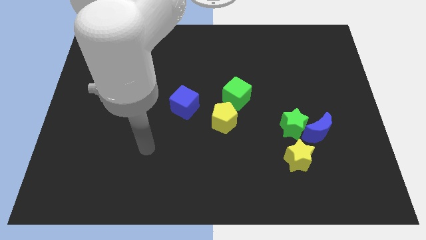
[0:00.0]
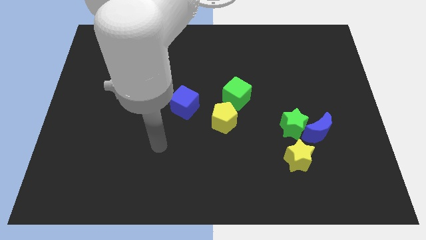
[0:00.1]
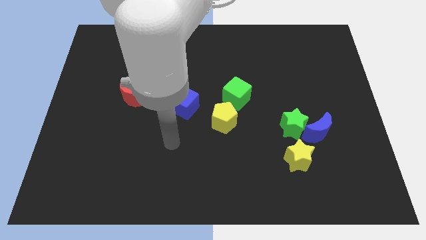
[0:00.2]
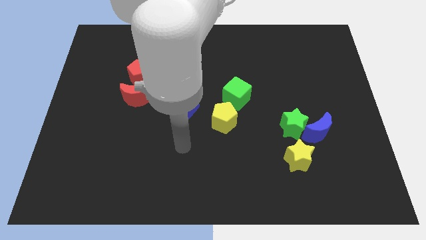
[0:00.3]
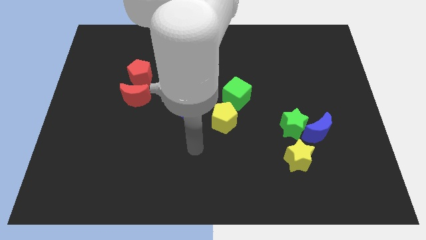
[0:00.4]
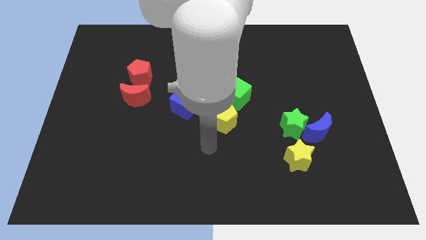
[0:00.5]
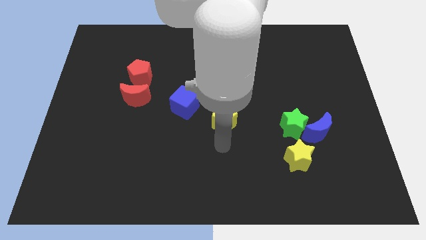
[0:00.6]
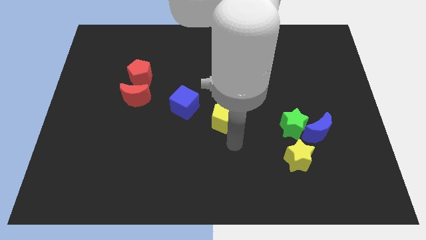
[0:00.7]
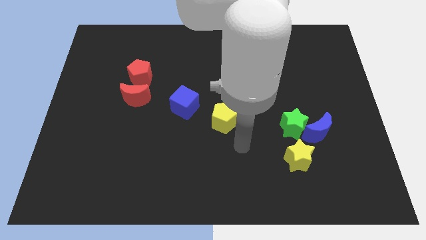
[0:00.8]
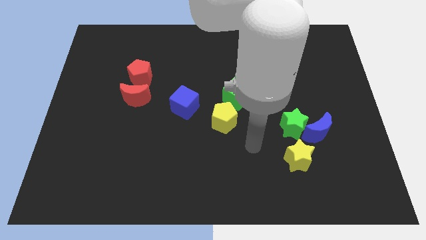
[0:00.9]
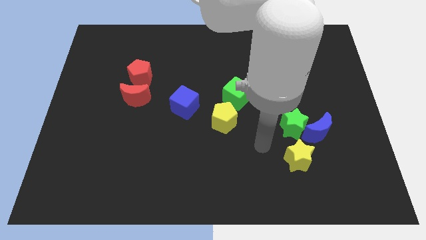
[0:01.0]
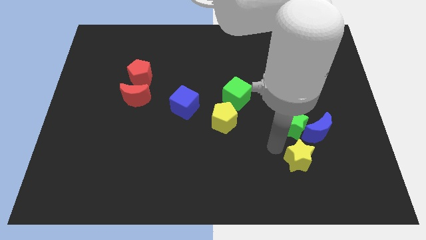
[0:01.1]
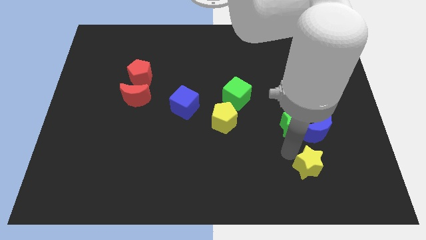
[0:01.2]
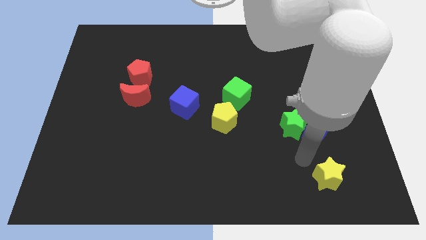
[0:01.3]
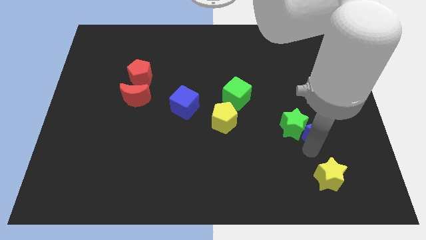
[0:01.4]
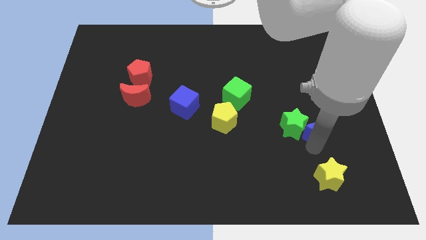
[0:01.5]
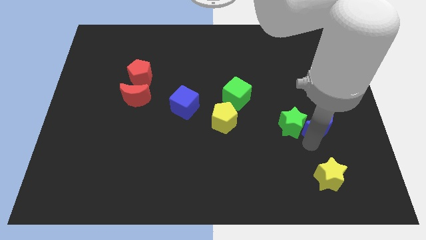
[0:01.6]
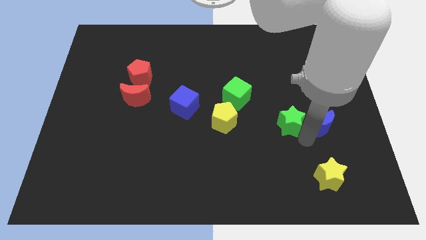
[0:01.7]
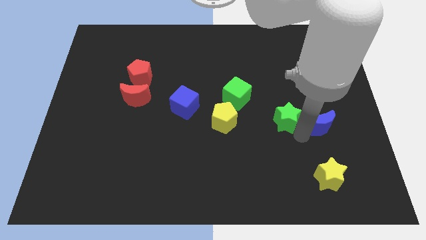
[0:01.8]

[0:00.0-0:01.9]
move the green star away from the blue moon and yellow star

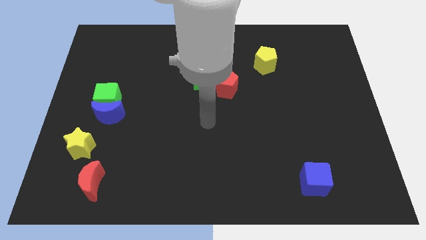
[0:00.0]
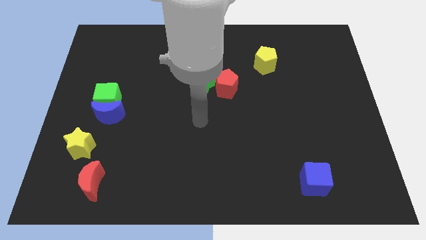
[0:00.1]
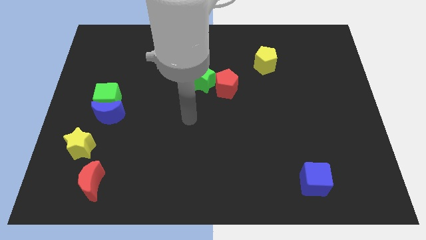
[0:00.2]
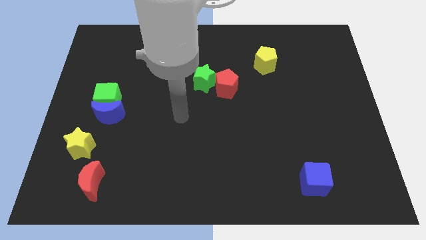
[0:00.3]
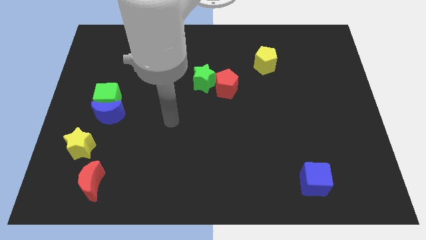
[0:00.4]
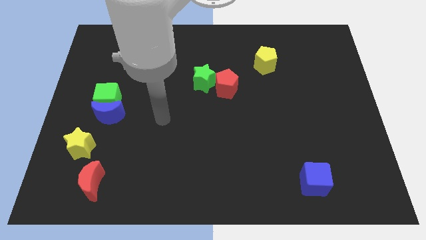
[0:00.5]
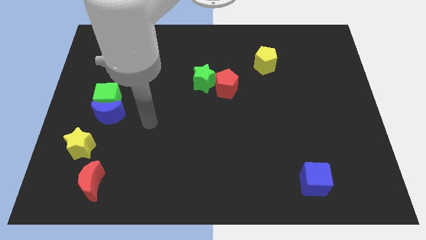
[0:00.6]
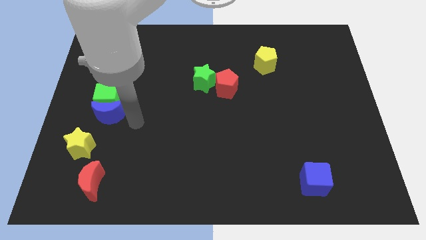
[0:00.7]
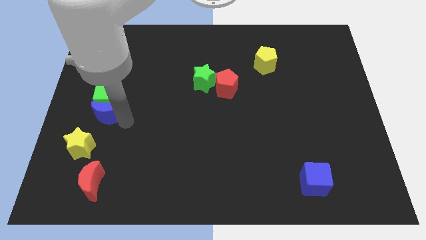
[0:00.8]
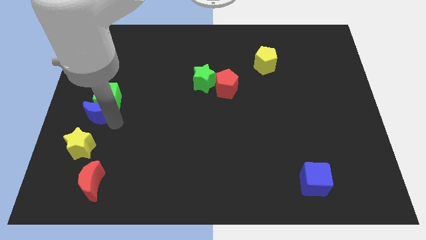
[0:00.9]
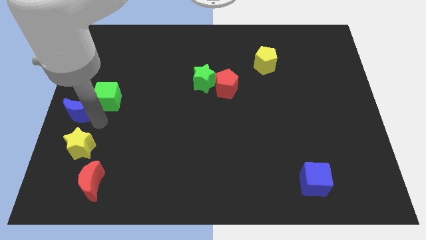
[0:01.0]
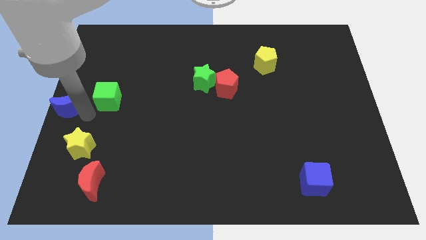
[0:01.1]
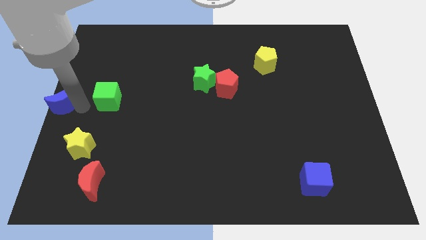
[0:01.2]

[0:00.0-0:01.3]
move the green cube away from the blue moon

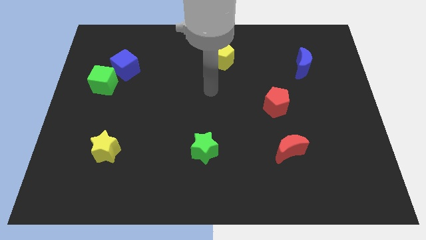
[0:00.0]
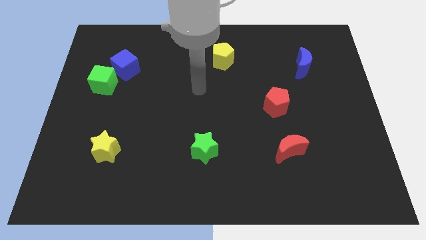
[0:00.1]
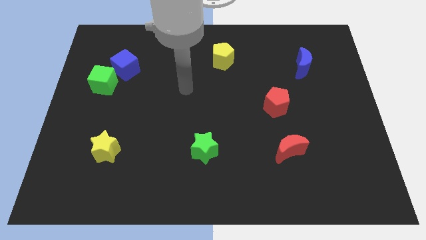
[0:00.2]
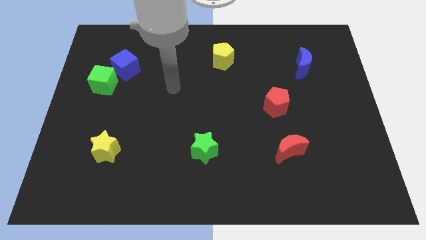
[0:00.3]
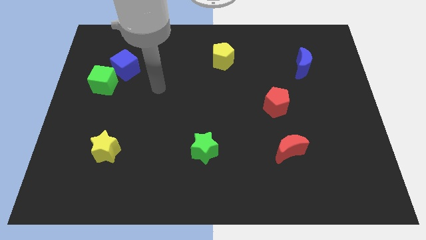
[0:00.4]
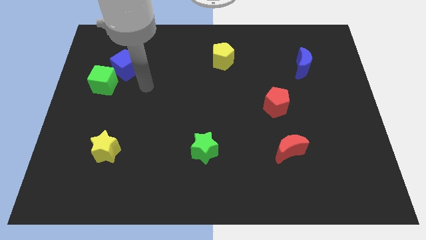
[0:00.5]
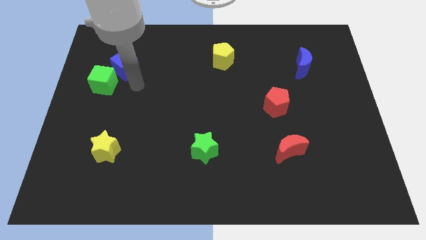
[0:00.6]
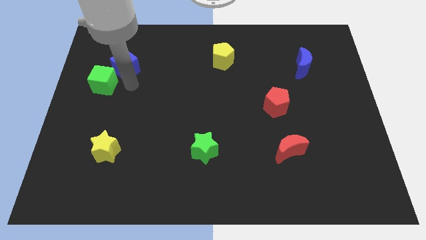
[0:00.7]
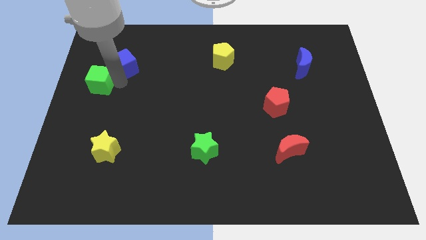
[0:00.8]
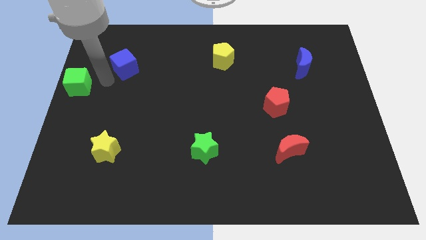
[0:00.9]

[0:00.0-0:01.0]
pull the blue cube apart from the green cube

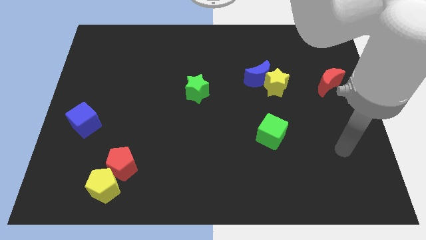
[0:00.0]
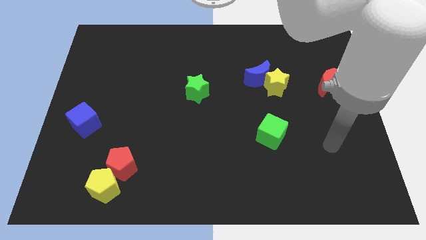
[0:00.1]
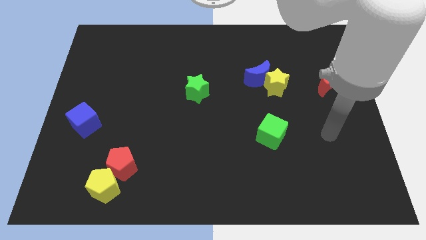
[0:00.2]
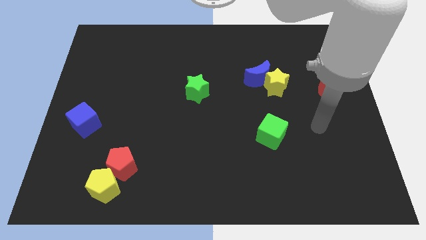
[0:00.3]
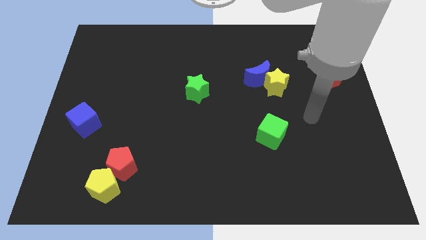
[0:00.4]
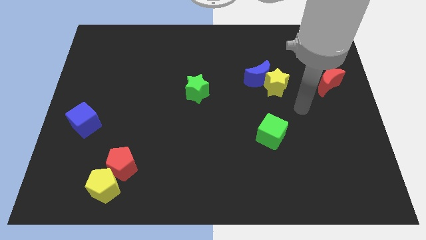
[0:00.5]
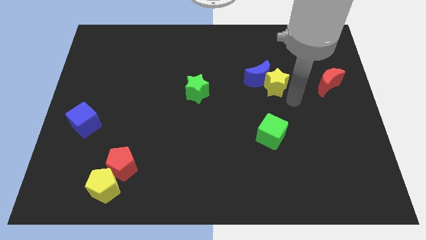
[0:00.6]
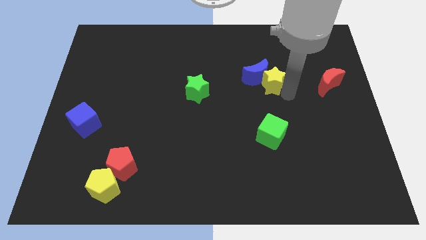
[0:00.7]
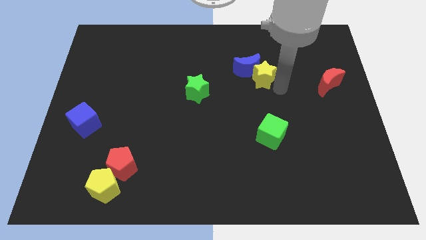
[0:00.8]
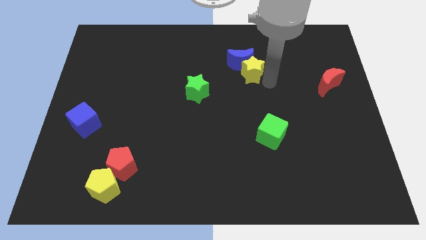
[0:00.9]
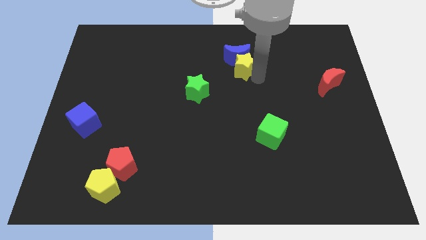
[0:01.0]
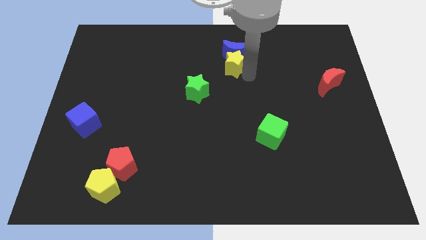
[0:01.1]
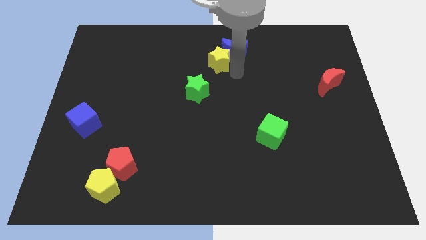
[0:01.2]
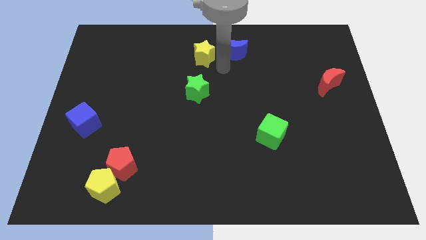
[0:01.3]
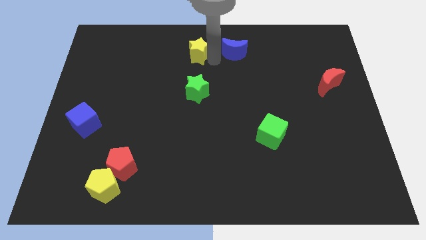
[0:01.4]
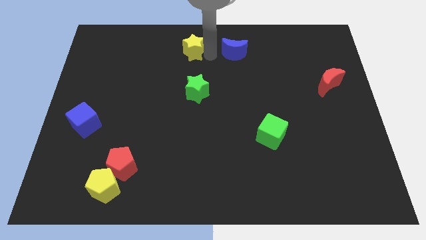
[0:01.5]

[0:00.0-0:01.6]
move the blue moon away from the yellow star

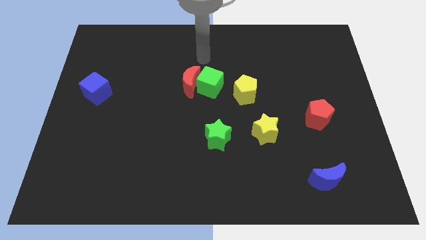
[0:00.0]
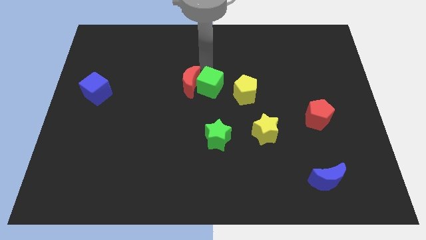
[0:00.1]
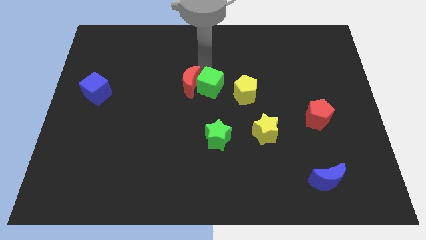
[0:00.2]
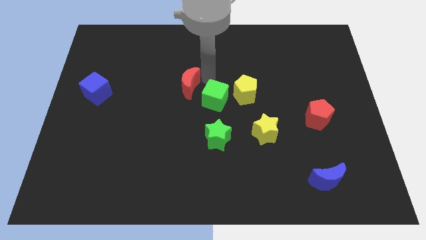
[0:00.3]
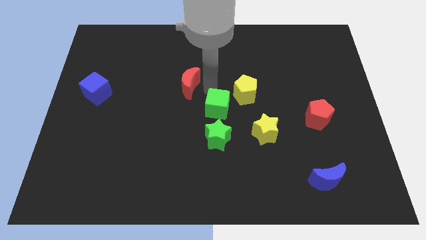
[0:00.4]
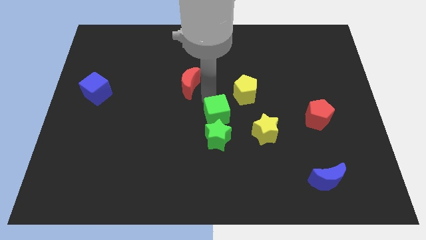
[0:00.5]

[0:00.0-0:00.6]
pull the red moon apart from the green cube

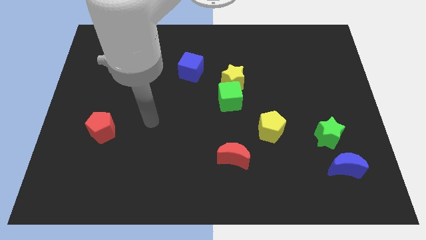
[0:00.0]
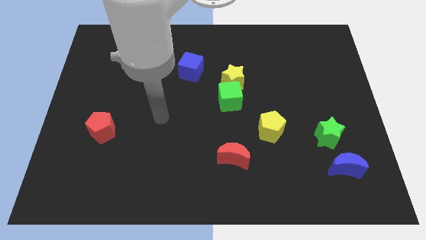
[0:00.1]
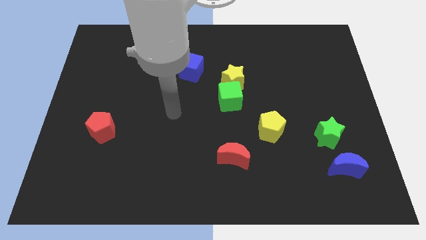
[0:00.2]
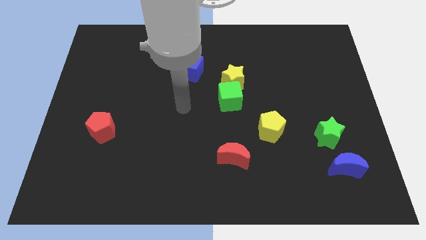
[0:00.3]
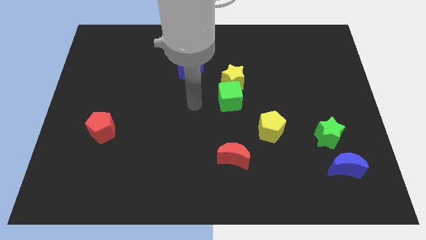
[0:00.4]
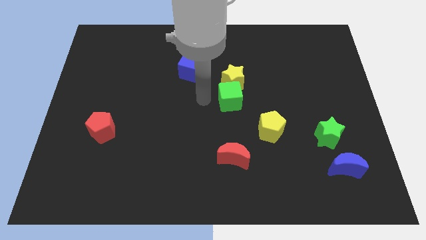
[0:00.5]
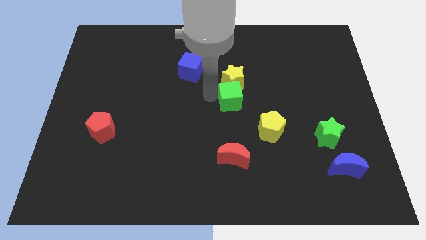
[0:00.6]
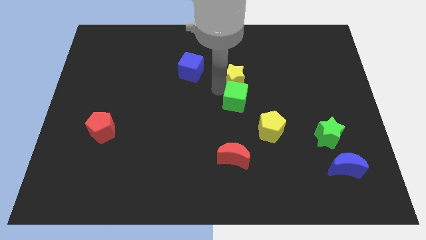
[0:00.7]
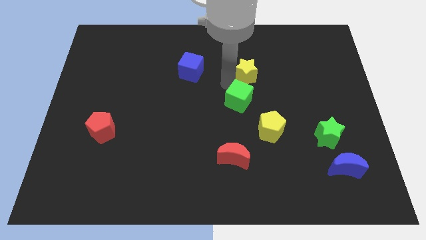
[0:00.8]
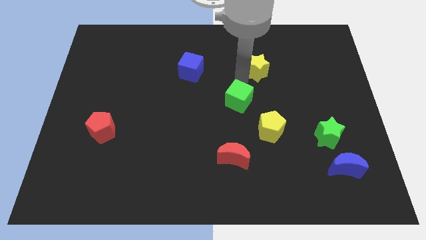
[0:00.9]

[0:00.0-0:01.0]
separate the green cube from the yellow star

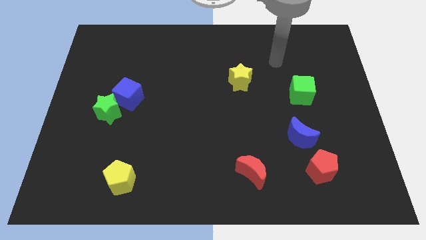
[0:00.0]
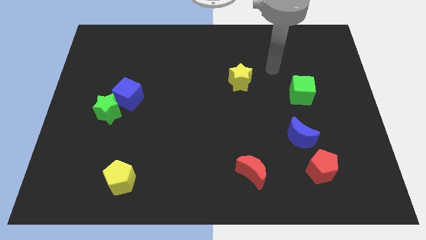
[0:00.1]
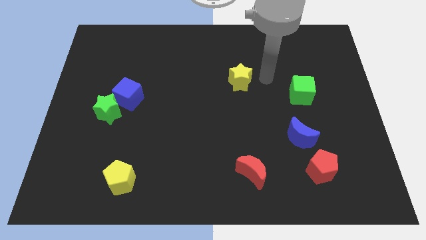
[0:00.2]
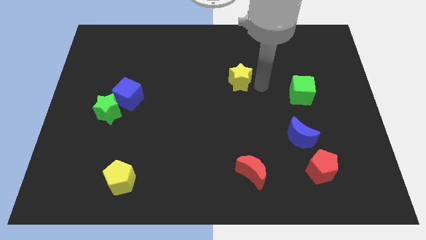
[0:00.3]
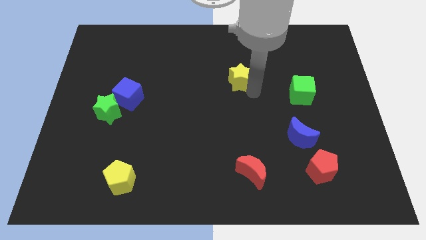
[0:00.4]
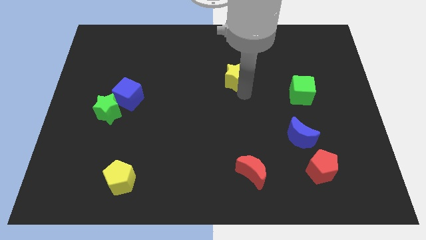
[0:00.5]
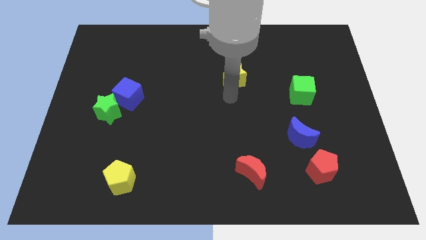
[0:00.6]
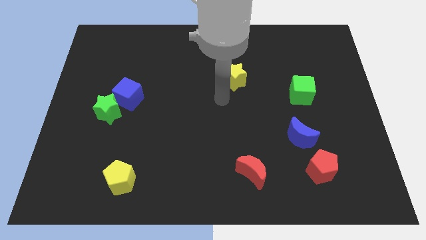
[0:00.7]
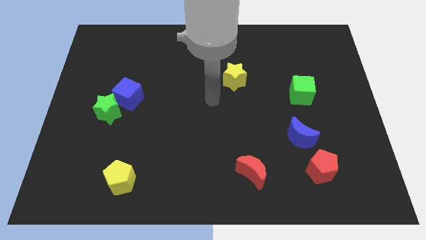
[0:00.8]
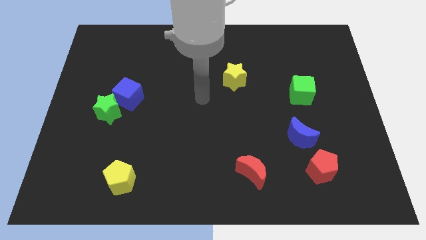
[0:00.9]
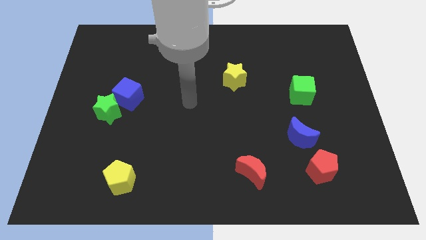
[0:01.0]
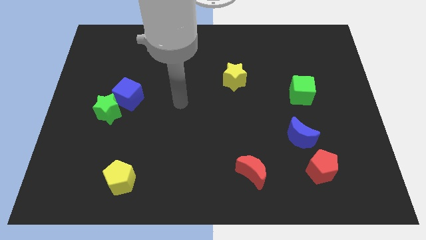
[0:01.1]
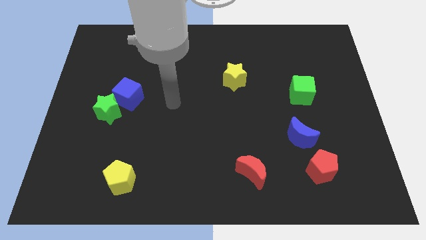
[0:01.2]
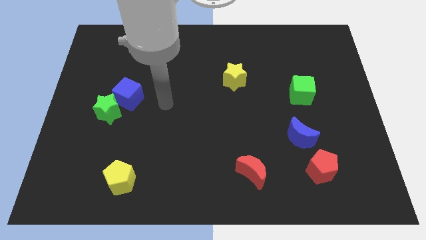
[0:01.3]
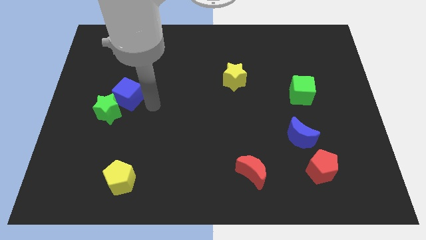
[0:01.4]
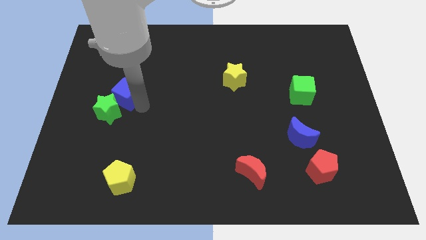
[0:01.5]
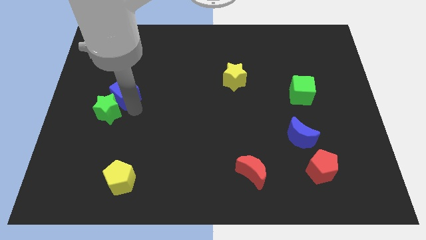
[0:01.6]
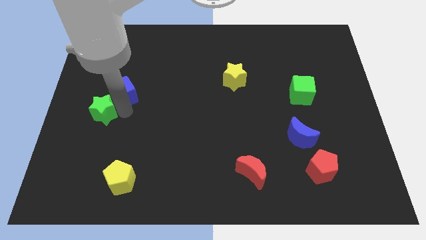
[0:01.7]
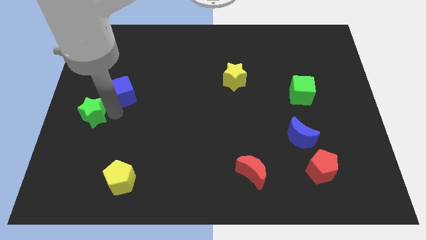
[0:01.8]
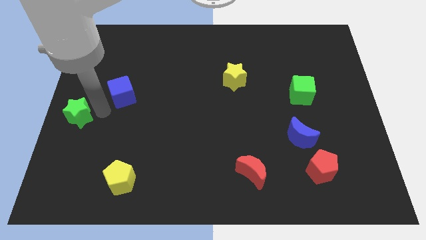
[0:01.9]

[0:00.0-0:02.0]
pull the blue cube apart from the green star

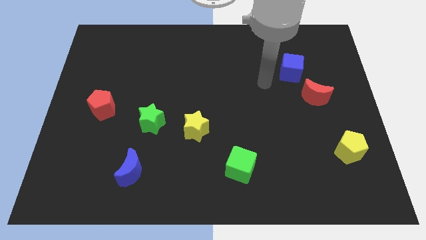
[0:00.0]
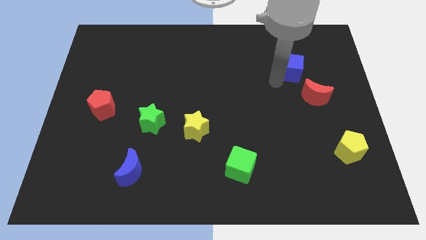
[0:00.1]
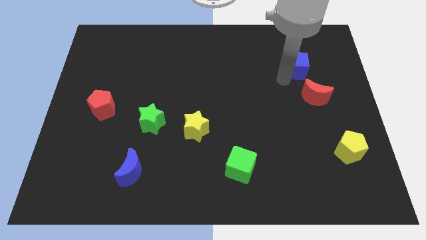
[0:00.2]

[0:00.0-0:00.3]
move the red moon away from the blue cube
